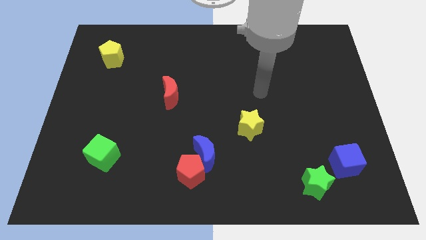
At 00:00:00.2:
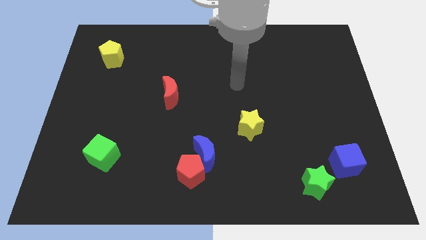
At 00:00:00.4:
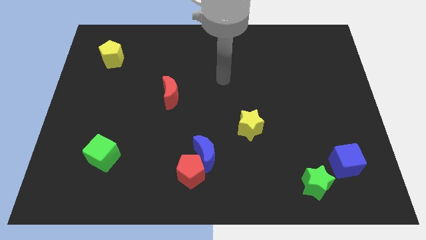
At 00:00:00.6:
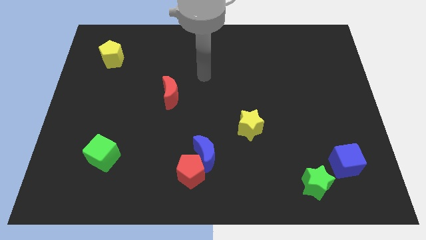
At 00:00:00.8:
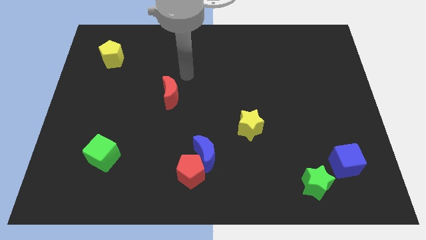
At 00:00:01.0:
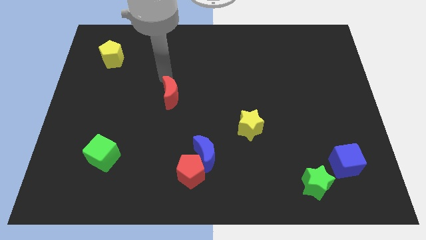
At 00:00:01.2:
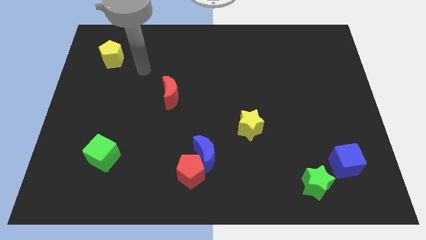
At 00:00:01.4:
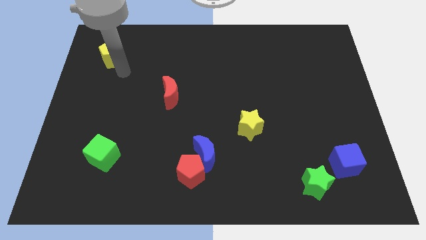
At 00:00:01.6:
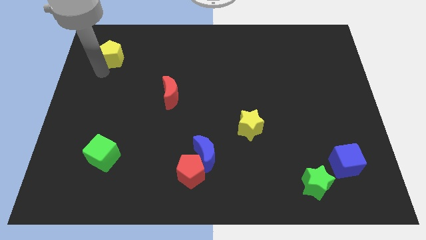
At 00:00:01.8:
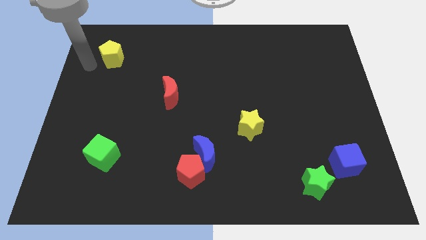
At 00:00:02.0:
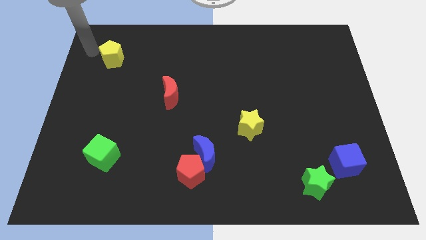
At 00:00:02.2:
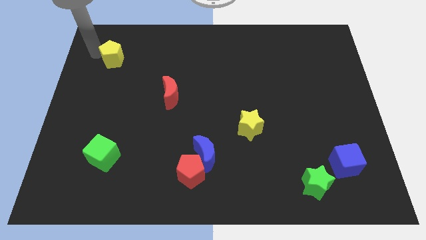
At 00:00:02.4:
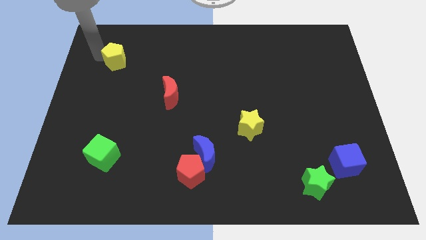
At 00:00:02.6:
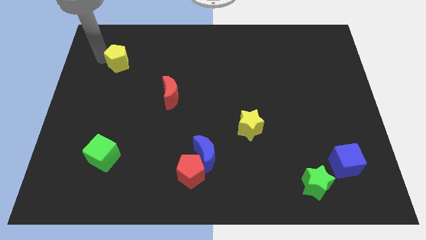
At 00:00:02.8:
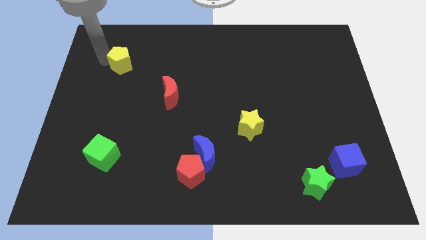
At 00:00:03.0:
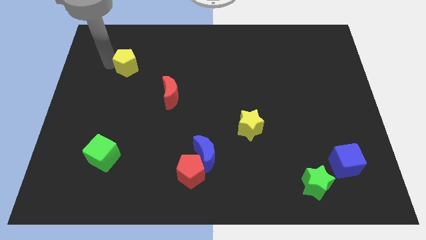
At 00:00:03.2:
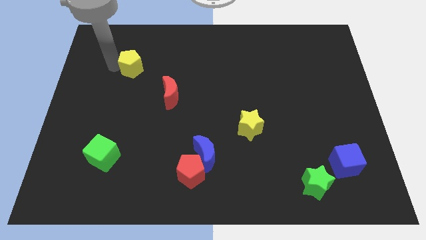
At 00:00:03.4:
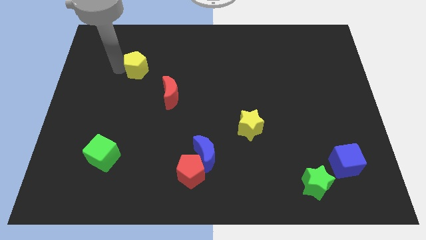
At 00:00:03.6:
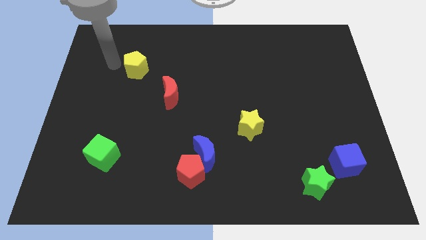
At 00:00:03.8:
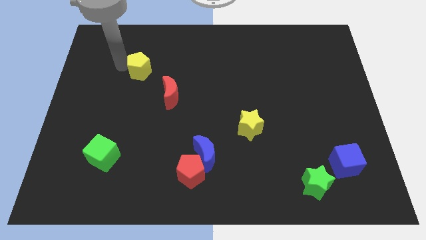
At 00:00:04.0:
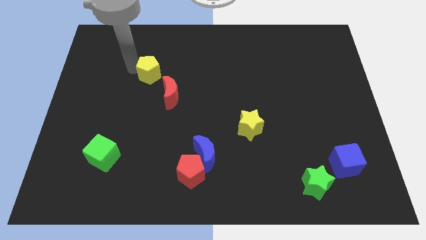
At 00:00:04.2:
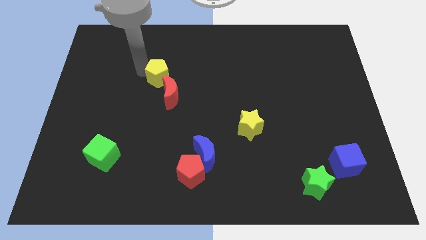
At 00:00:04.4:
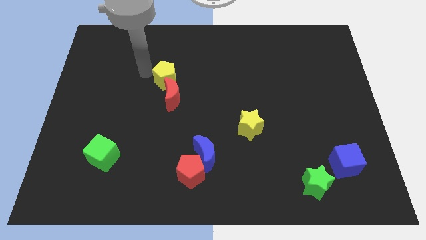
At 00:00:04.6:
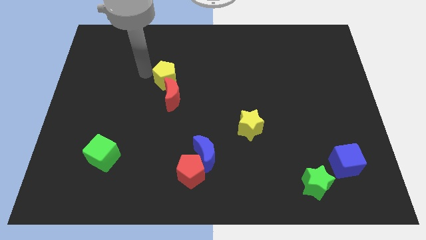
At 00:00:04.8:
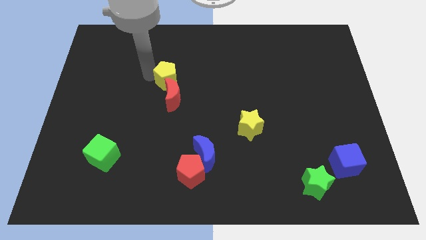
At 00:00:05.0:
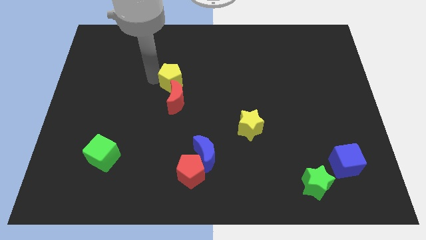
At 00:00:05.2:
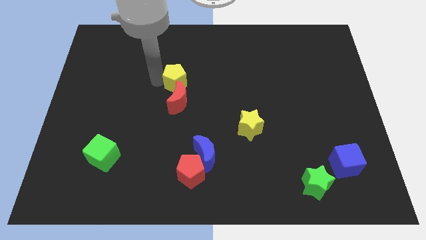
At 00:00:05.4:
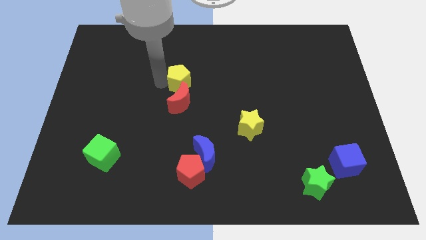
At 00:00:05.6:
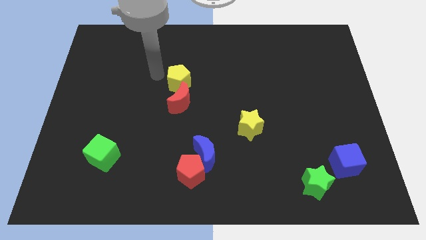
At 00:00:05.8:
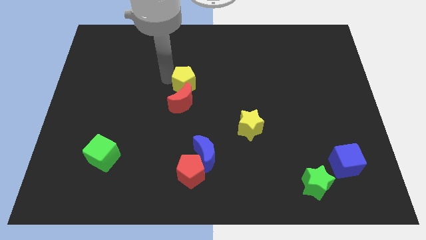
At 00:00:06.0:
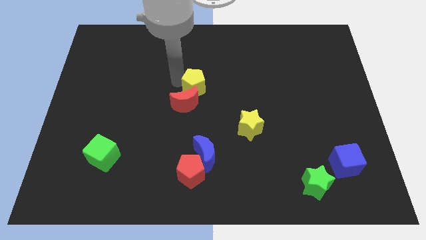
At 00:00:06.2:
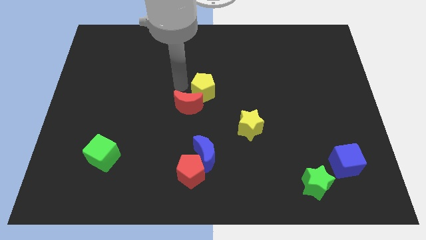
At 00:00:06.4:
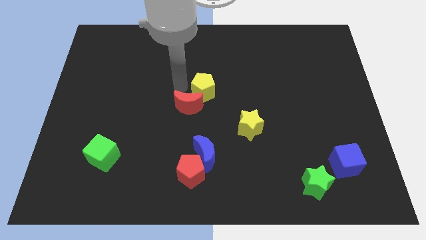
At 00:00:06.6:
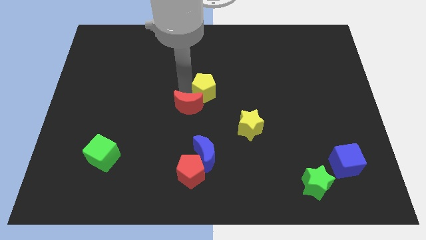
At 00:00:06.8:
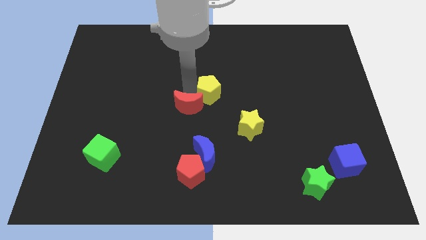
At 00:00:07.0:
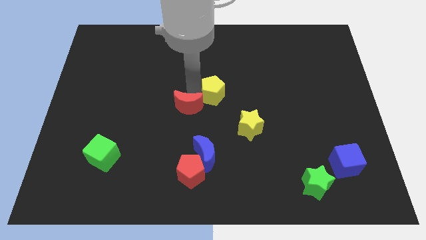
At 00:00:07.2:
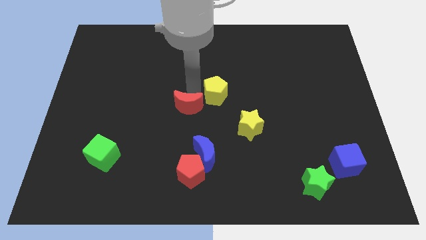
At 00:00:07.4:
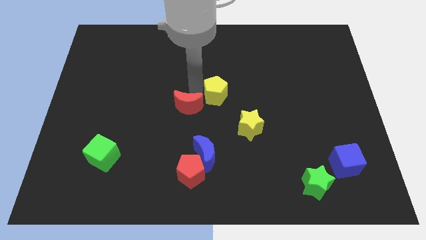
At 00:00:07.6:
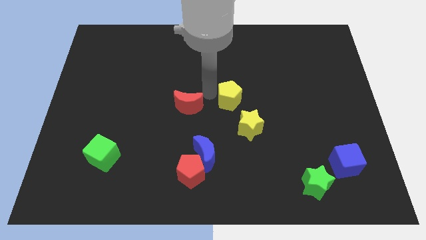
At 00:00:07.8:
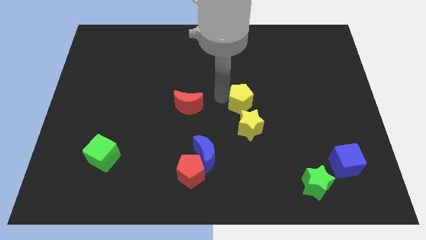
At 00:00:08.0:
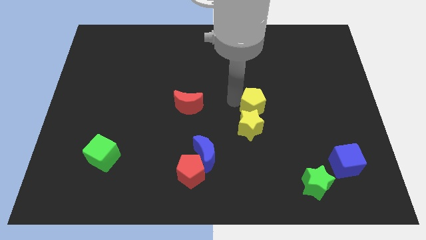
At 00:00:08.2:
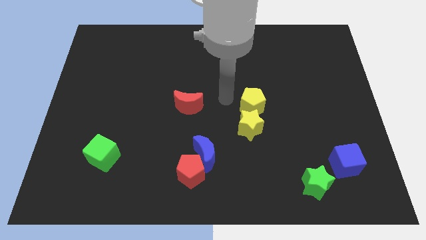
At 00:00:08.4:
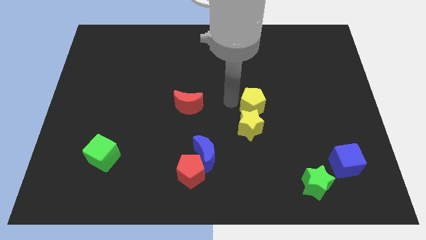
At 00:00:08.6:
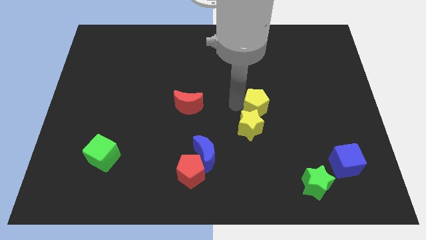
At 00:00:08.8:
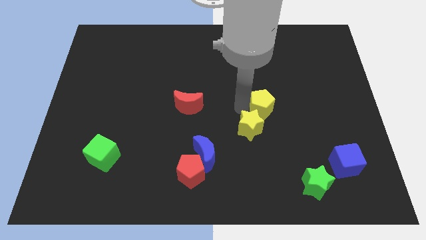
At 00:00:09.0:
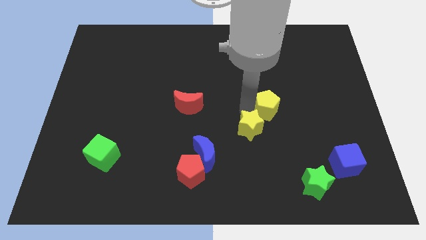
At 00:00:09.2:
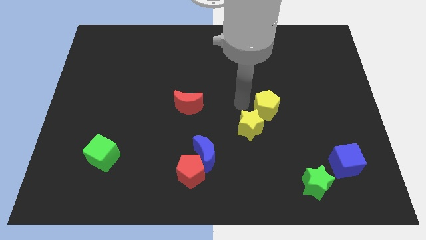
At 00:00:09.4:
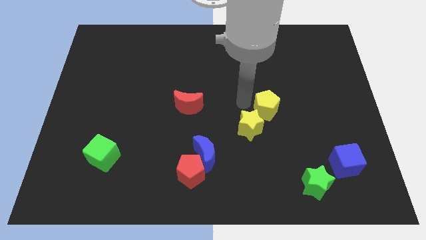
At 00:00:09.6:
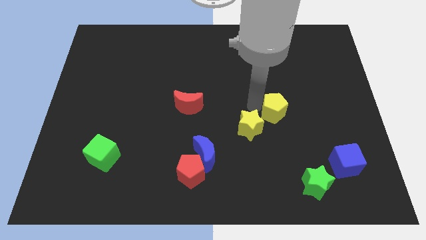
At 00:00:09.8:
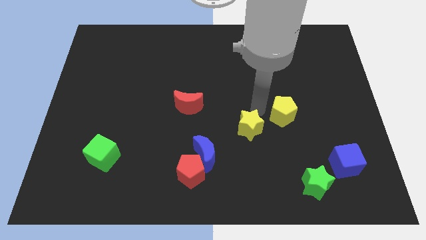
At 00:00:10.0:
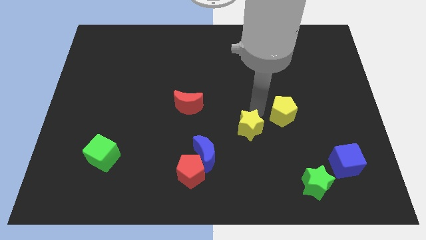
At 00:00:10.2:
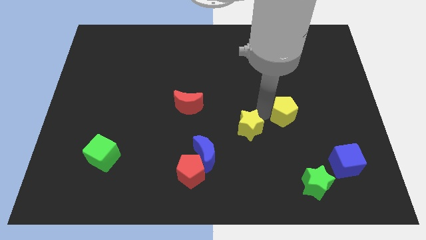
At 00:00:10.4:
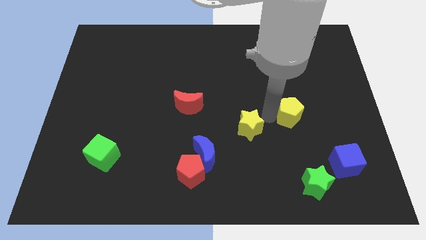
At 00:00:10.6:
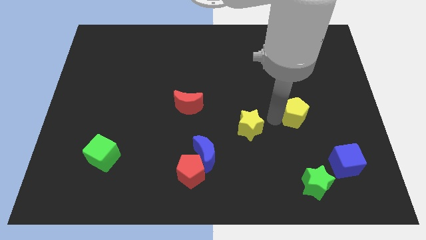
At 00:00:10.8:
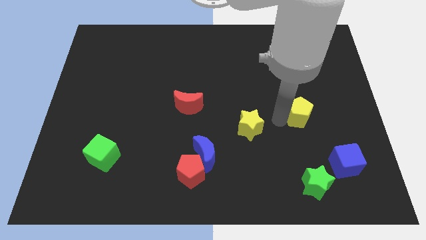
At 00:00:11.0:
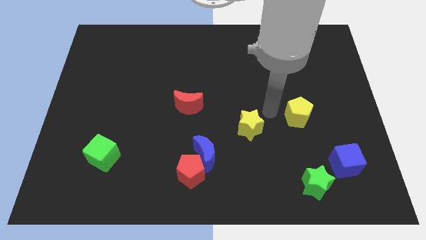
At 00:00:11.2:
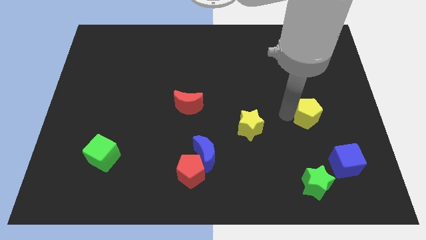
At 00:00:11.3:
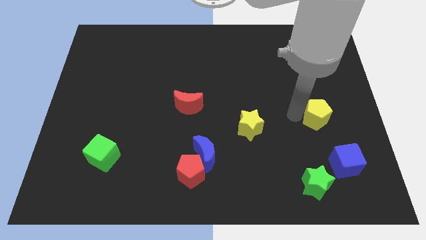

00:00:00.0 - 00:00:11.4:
slide the yellow pentagon above the blue cube
